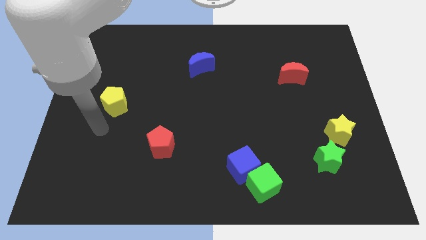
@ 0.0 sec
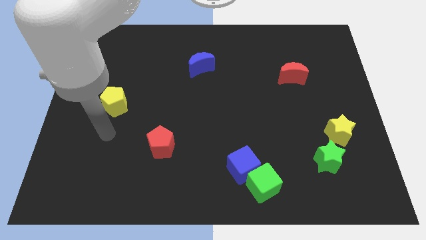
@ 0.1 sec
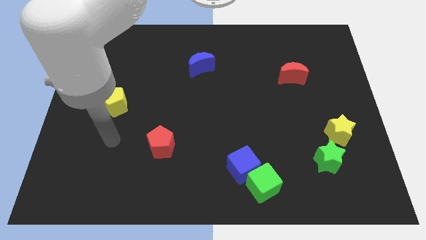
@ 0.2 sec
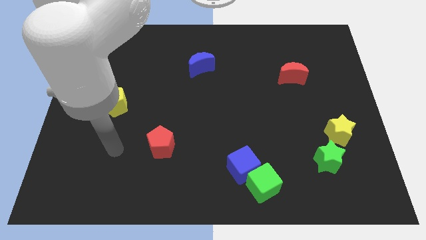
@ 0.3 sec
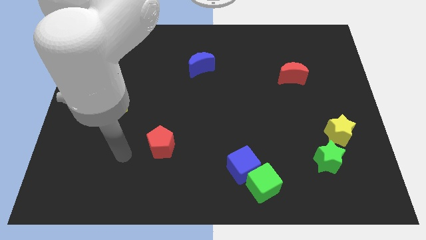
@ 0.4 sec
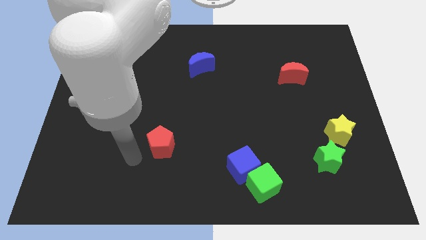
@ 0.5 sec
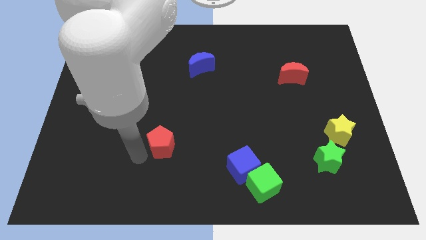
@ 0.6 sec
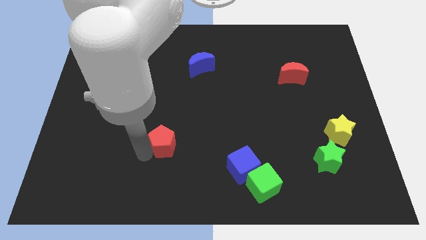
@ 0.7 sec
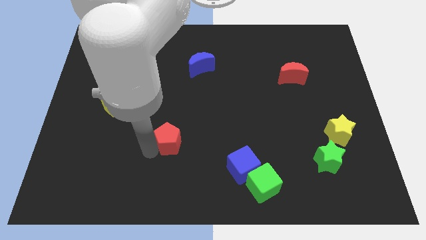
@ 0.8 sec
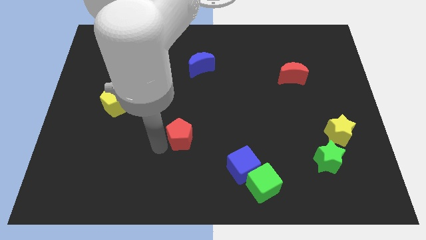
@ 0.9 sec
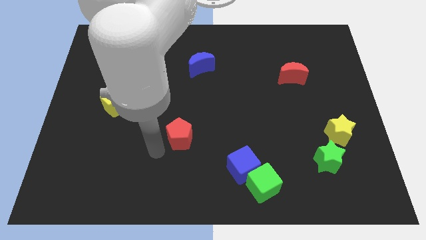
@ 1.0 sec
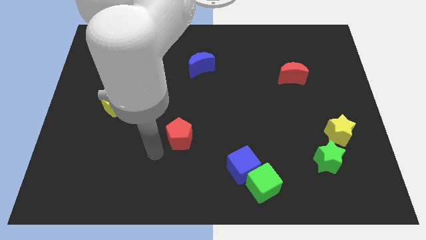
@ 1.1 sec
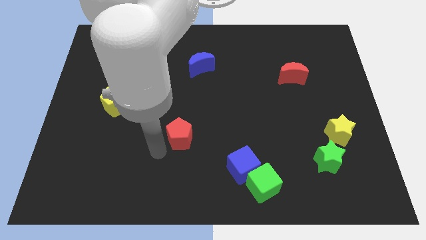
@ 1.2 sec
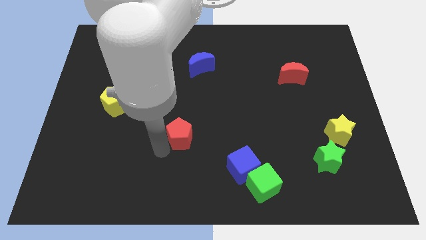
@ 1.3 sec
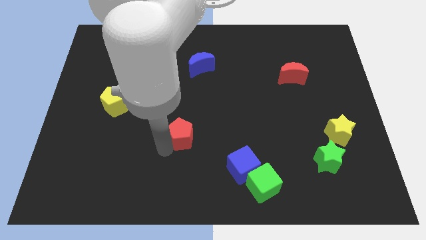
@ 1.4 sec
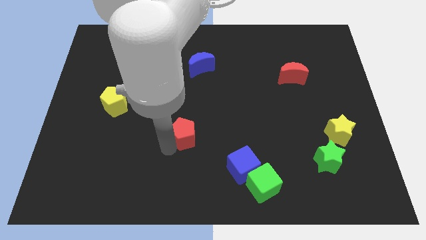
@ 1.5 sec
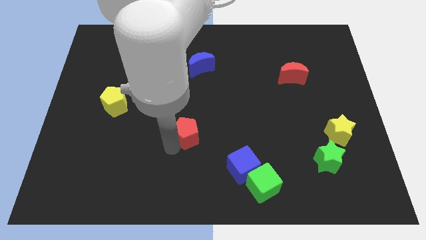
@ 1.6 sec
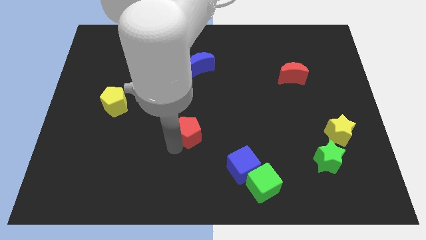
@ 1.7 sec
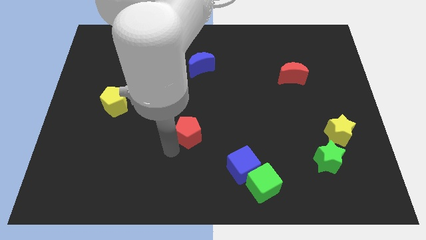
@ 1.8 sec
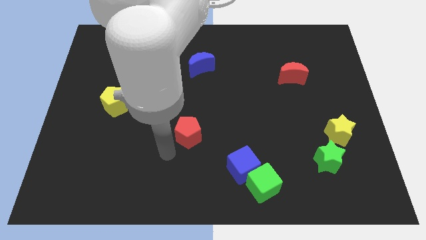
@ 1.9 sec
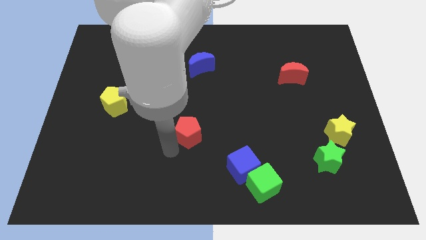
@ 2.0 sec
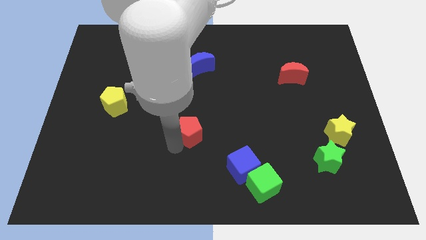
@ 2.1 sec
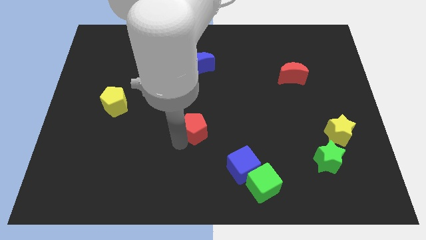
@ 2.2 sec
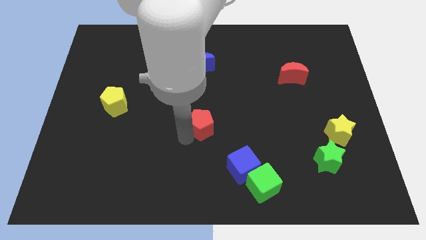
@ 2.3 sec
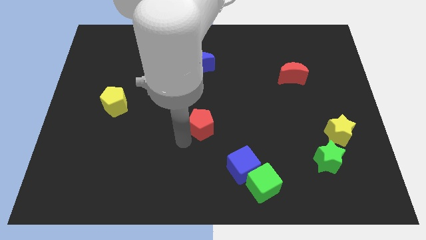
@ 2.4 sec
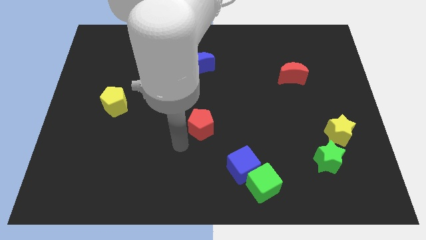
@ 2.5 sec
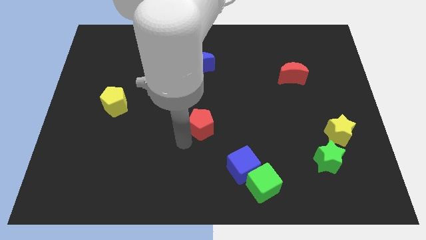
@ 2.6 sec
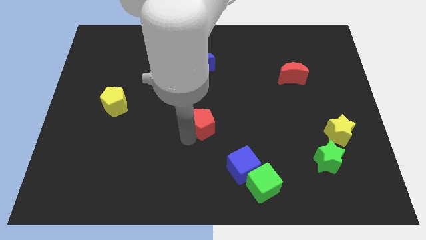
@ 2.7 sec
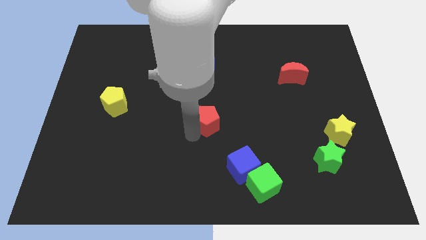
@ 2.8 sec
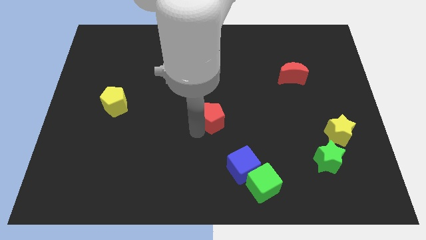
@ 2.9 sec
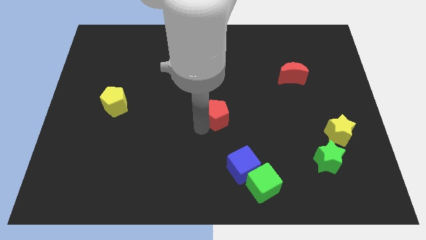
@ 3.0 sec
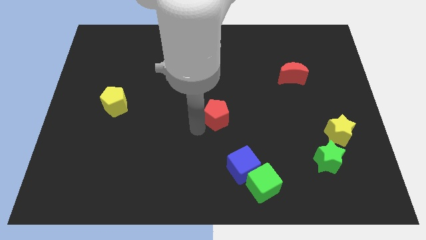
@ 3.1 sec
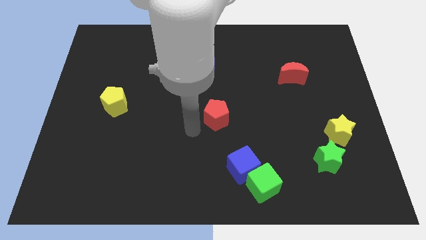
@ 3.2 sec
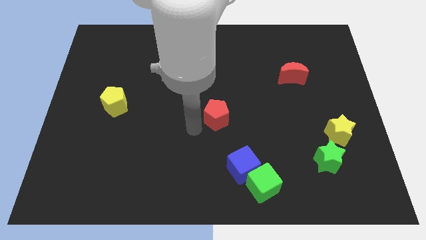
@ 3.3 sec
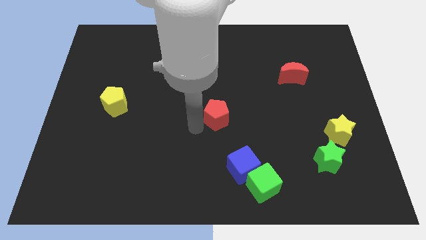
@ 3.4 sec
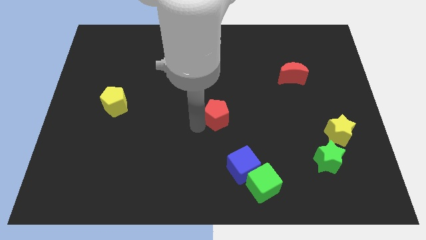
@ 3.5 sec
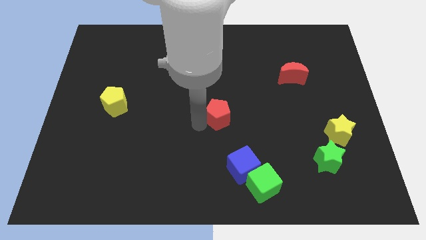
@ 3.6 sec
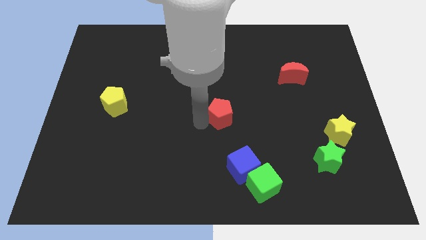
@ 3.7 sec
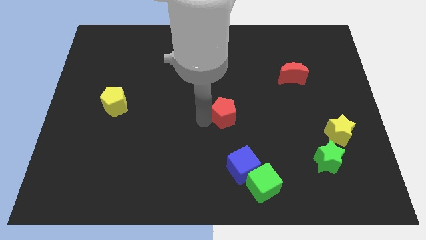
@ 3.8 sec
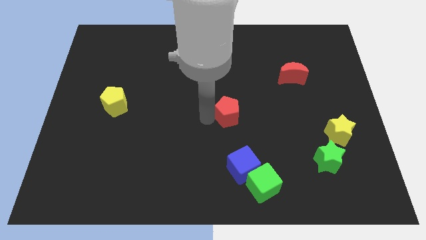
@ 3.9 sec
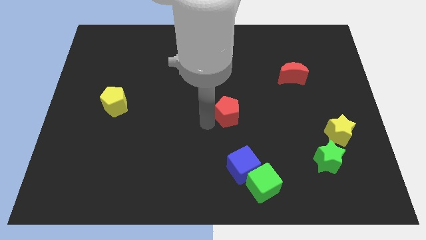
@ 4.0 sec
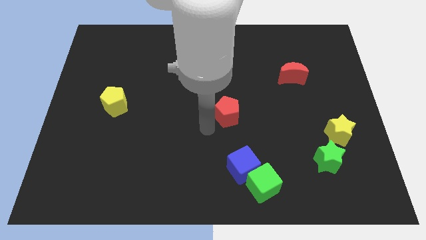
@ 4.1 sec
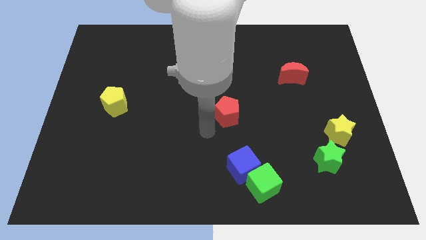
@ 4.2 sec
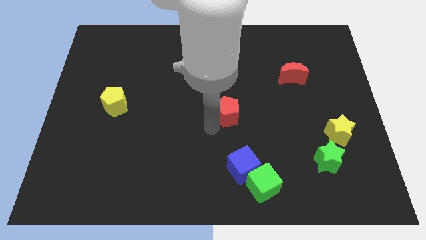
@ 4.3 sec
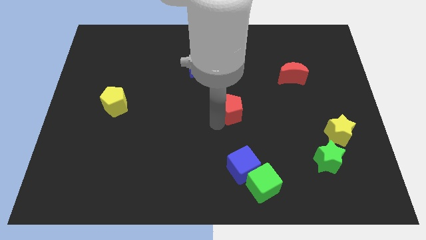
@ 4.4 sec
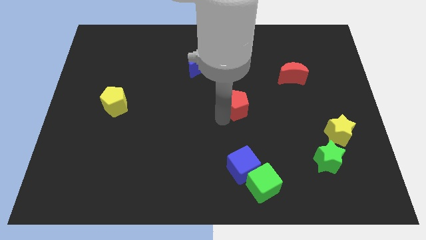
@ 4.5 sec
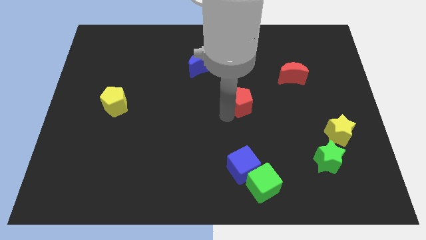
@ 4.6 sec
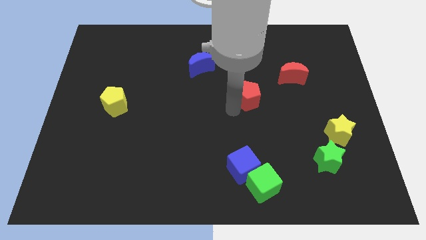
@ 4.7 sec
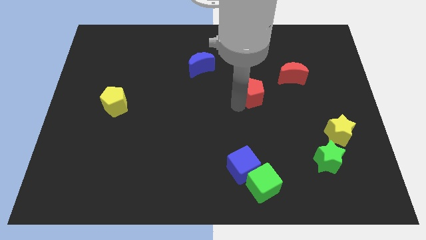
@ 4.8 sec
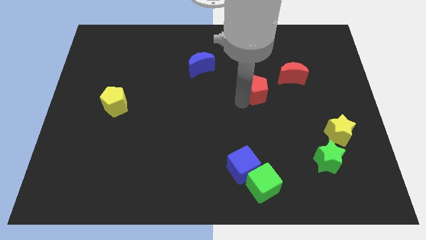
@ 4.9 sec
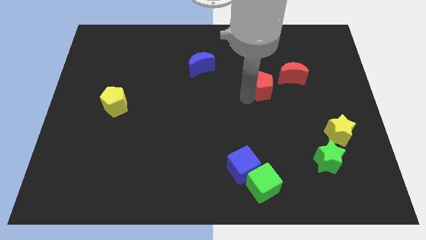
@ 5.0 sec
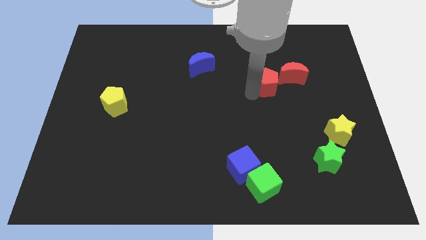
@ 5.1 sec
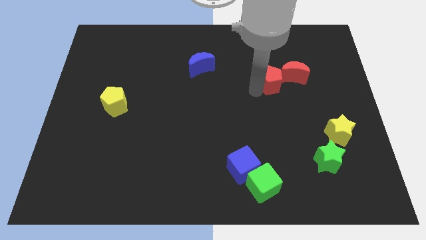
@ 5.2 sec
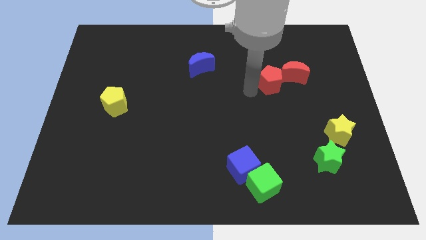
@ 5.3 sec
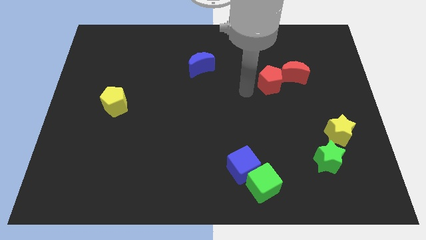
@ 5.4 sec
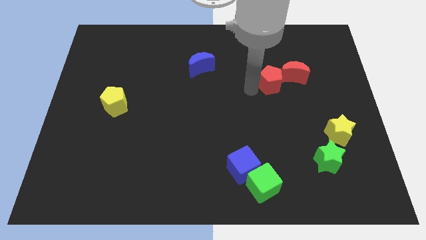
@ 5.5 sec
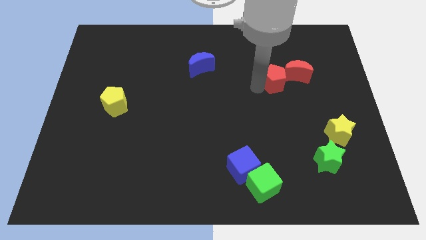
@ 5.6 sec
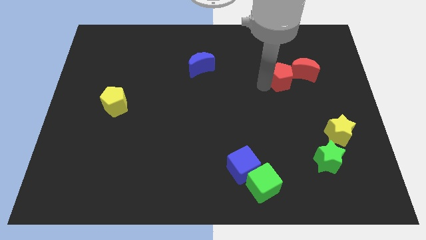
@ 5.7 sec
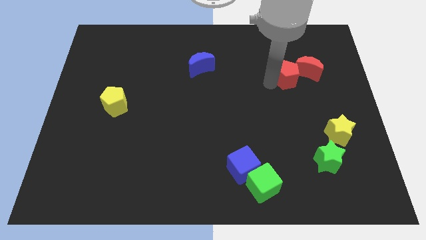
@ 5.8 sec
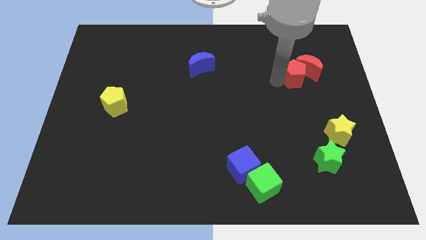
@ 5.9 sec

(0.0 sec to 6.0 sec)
put the red pentagon towards the red moon

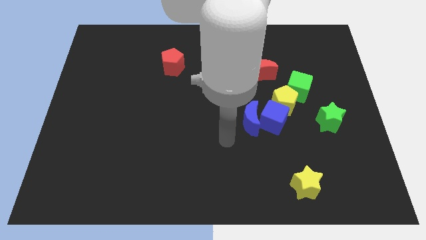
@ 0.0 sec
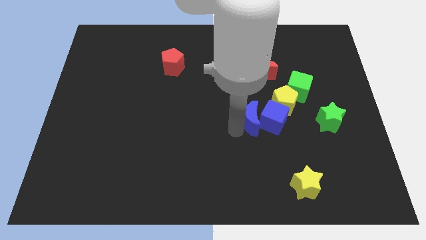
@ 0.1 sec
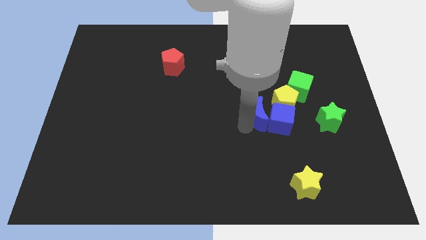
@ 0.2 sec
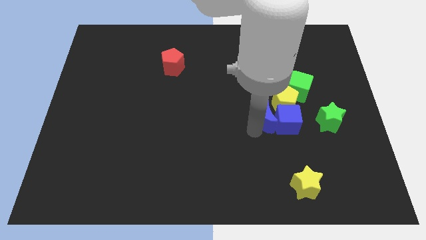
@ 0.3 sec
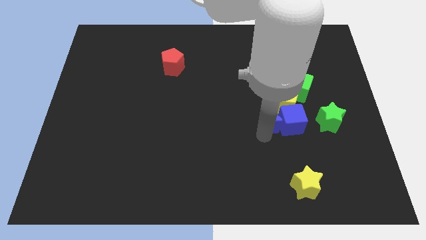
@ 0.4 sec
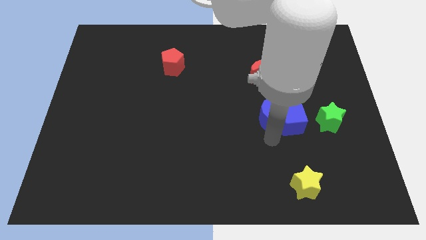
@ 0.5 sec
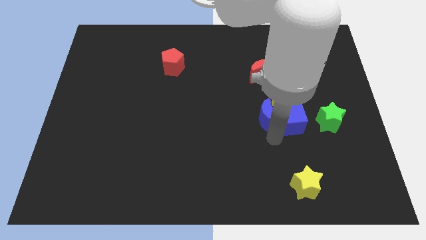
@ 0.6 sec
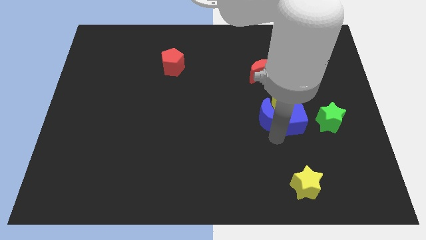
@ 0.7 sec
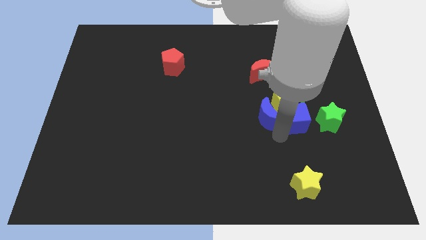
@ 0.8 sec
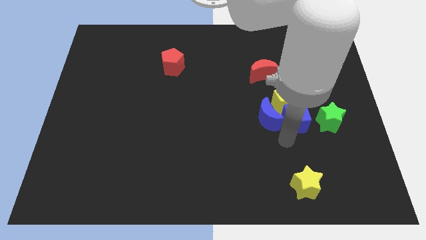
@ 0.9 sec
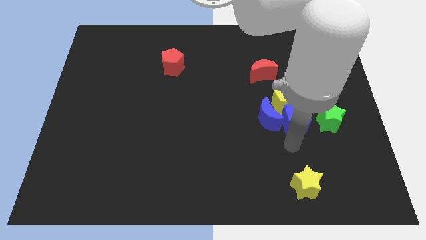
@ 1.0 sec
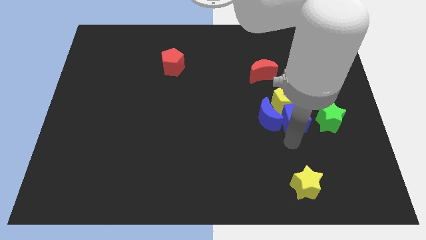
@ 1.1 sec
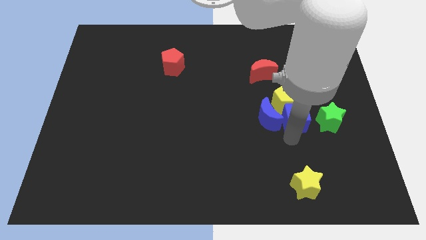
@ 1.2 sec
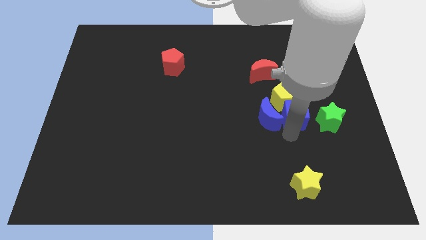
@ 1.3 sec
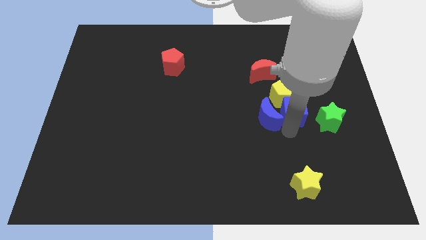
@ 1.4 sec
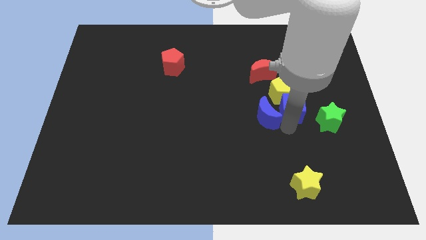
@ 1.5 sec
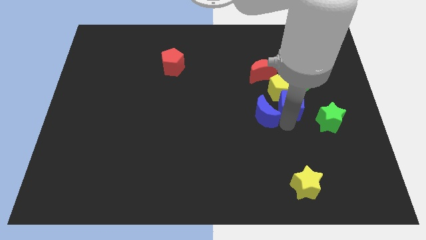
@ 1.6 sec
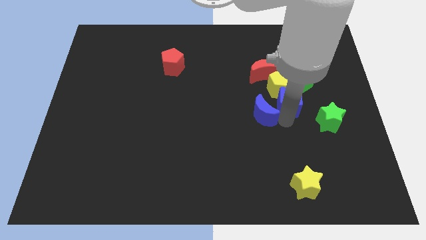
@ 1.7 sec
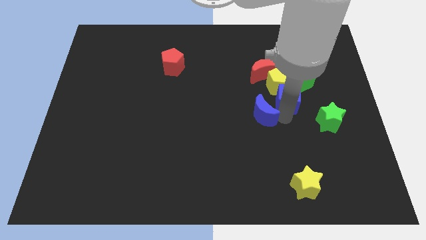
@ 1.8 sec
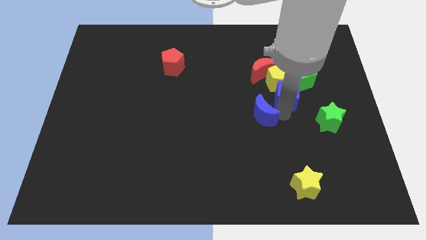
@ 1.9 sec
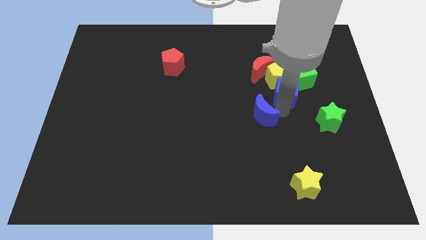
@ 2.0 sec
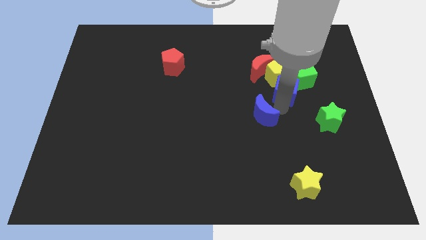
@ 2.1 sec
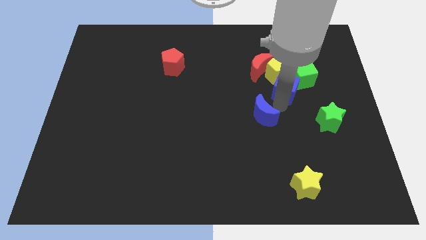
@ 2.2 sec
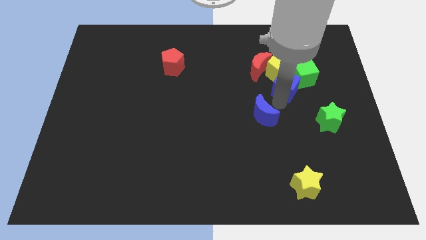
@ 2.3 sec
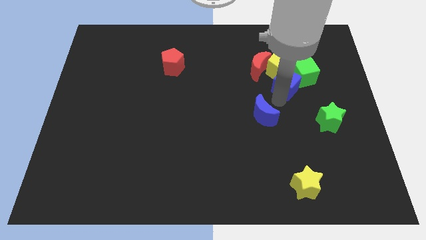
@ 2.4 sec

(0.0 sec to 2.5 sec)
move the blue cube close to the green cube
